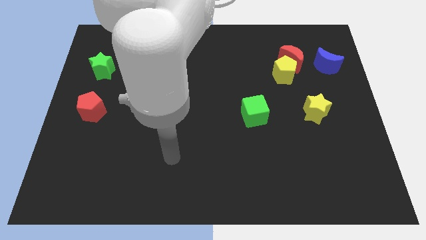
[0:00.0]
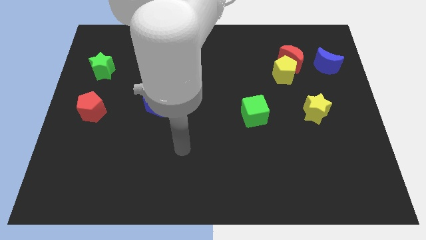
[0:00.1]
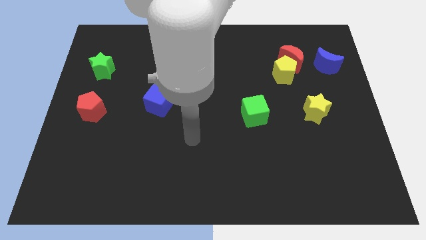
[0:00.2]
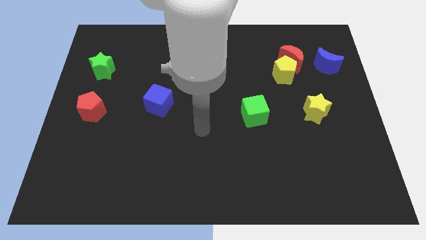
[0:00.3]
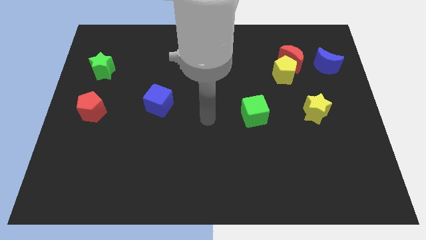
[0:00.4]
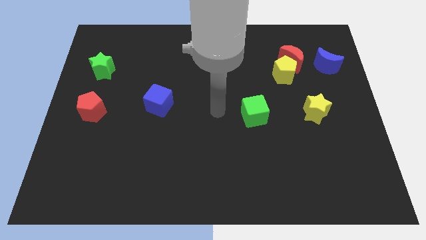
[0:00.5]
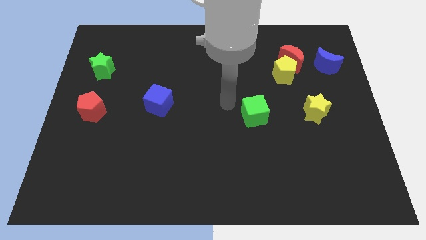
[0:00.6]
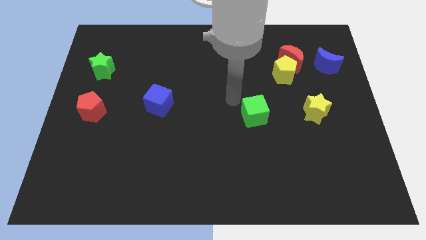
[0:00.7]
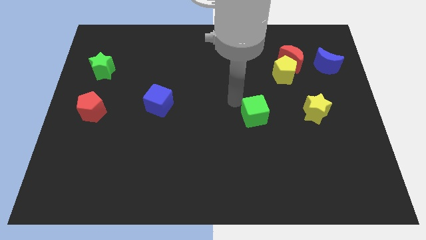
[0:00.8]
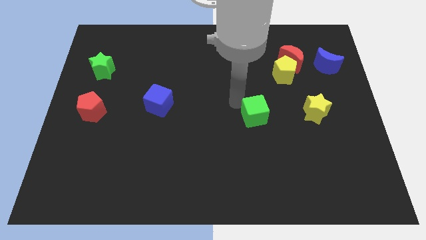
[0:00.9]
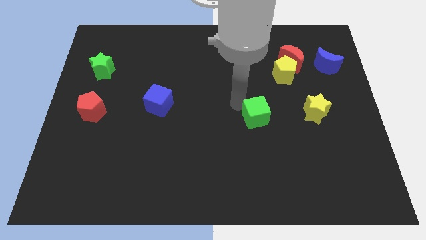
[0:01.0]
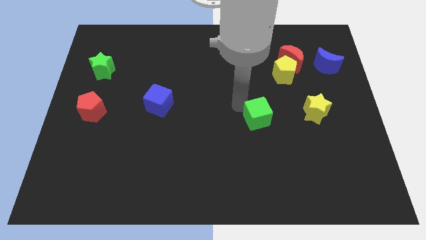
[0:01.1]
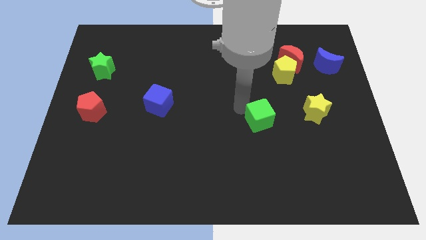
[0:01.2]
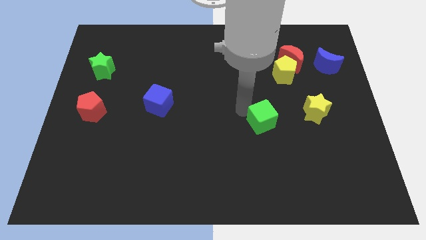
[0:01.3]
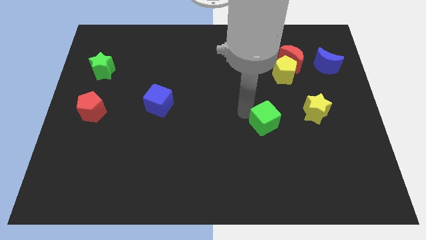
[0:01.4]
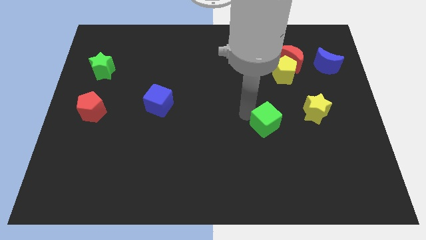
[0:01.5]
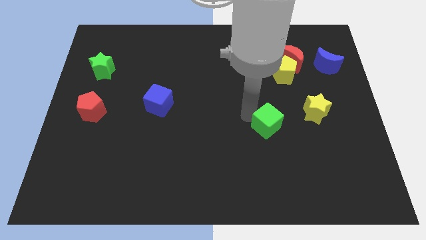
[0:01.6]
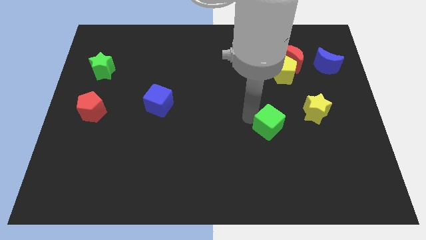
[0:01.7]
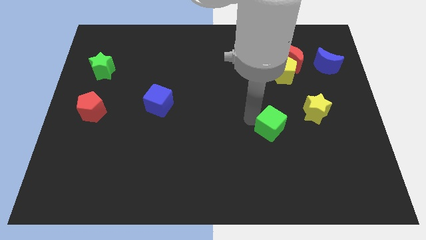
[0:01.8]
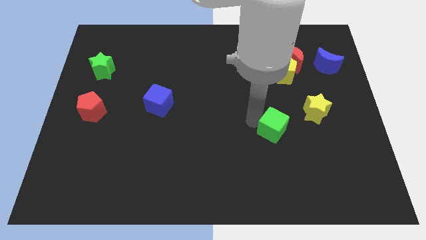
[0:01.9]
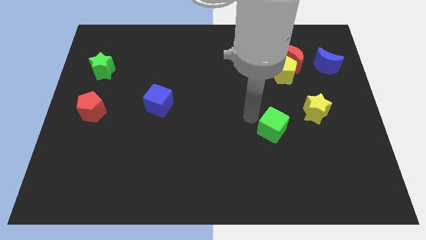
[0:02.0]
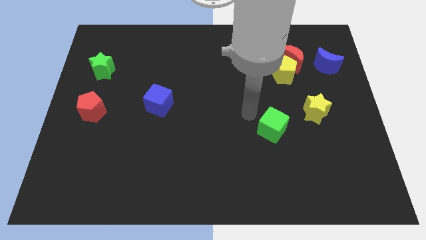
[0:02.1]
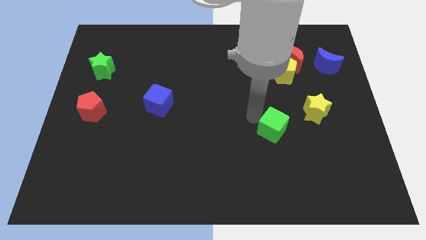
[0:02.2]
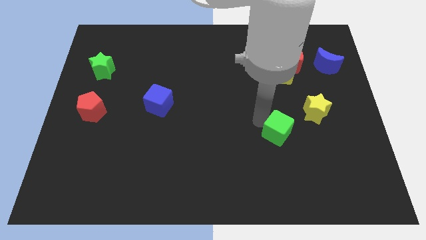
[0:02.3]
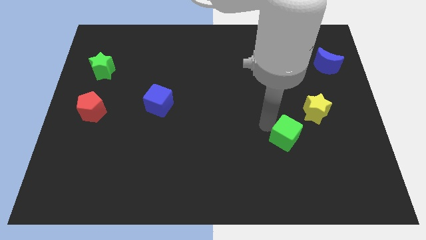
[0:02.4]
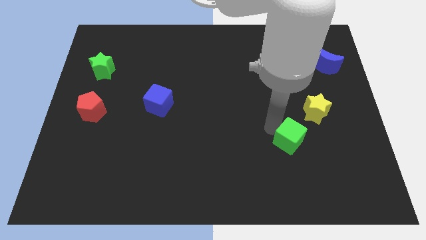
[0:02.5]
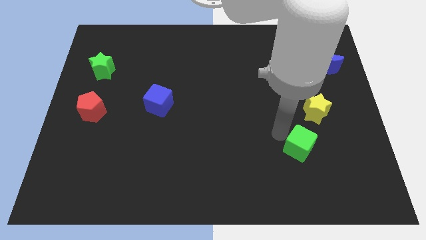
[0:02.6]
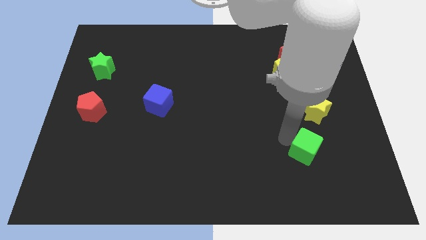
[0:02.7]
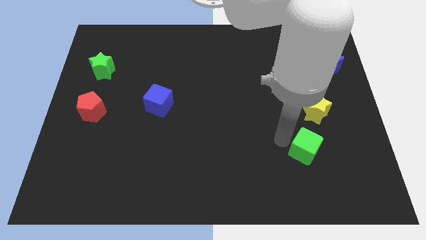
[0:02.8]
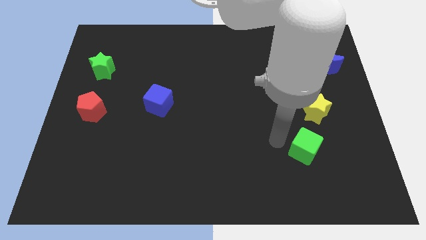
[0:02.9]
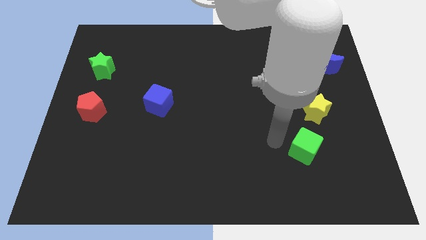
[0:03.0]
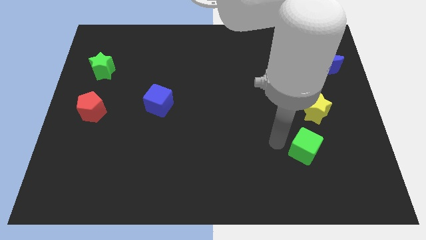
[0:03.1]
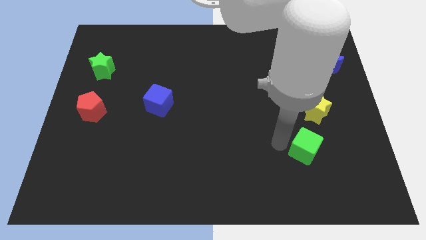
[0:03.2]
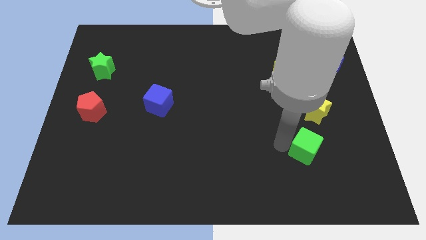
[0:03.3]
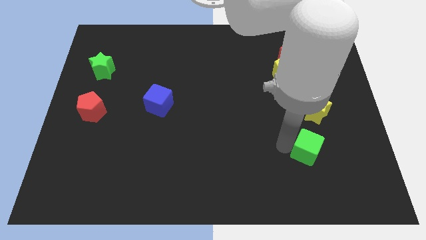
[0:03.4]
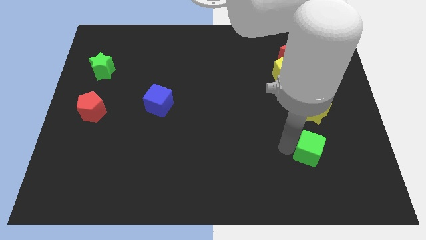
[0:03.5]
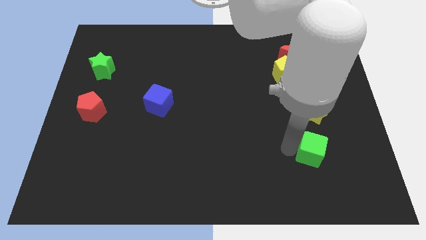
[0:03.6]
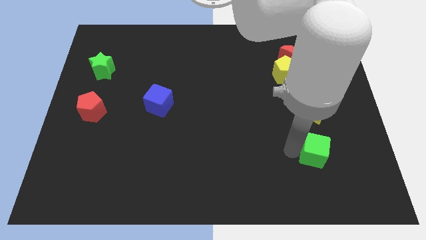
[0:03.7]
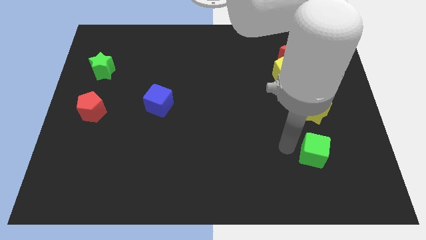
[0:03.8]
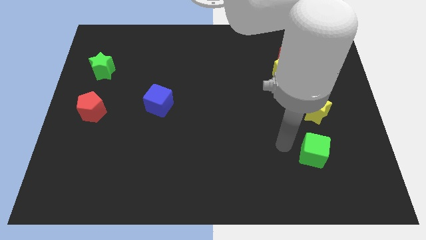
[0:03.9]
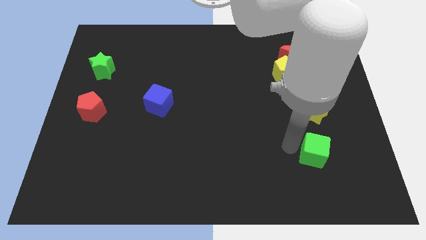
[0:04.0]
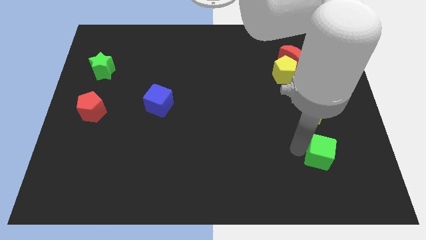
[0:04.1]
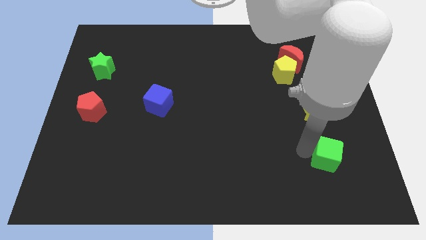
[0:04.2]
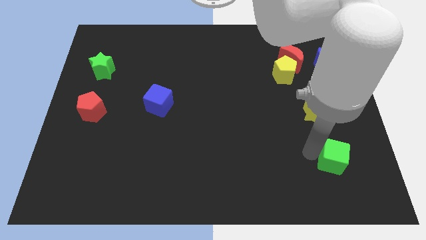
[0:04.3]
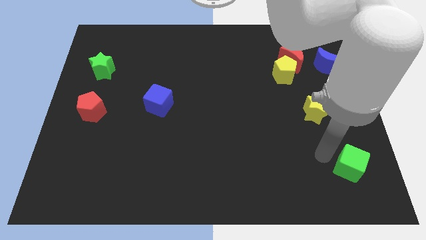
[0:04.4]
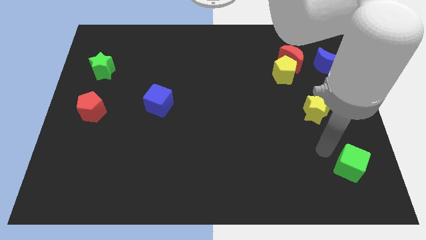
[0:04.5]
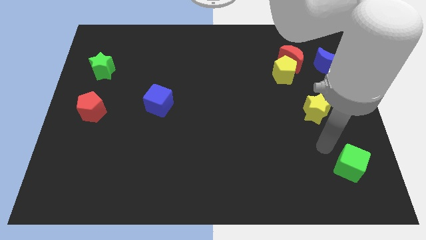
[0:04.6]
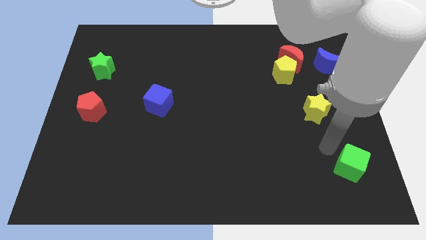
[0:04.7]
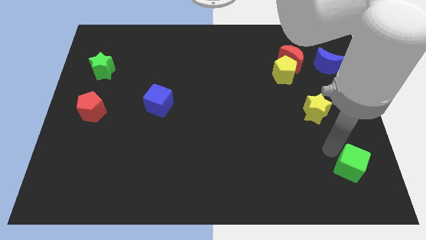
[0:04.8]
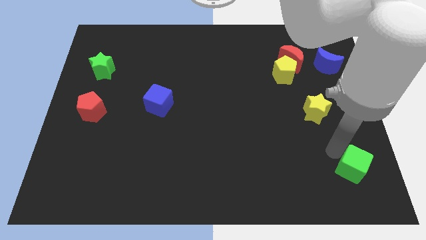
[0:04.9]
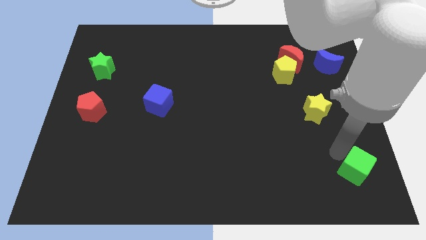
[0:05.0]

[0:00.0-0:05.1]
push the green cube to the bottom right of the board

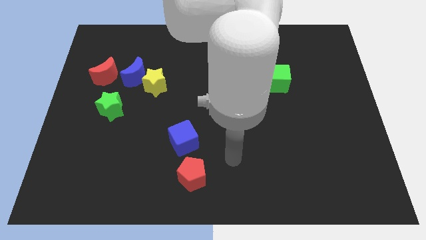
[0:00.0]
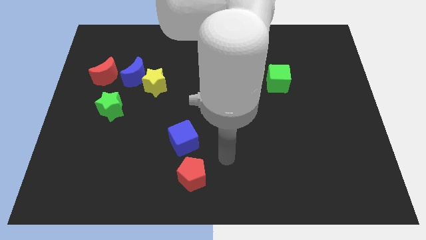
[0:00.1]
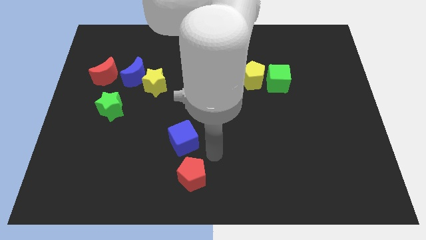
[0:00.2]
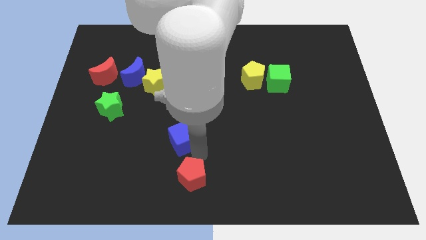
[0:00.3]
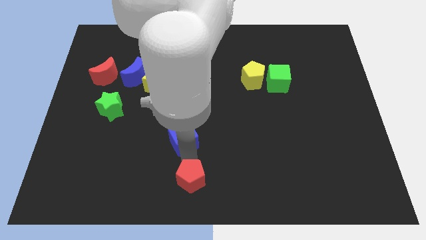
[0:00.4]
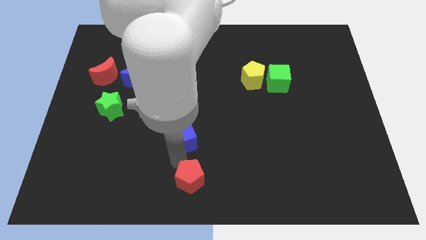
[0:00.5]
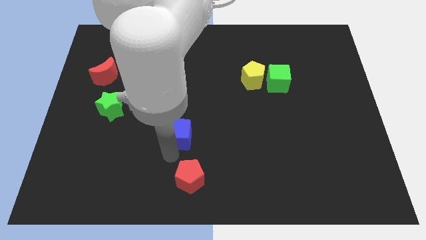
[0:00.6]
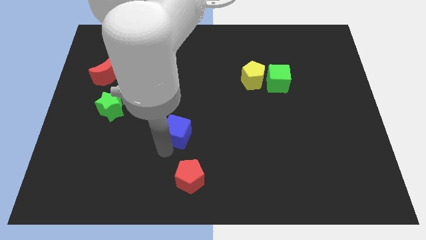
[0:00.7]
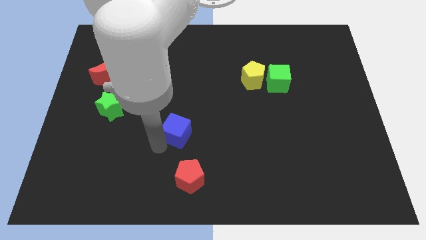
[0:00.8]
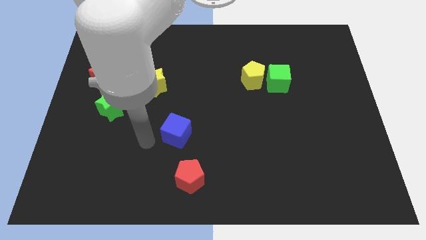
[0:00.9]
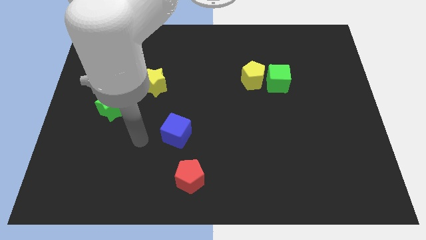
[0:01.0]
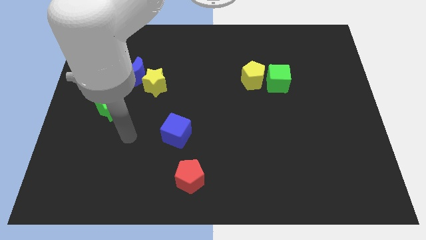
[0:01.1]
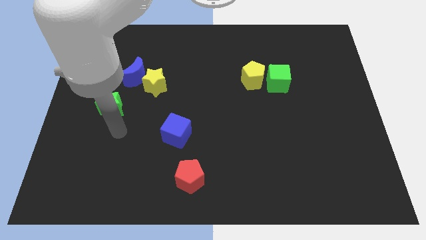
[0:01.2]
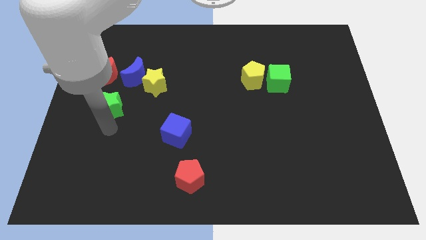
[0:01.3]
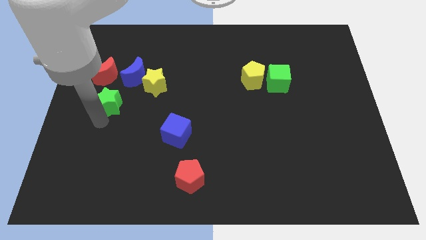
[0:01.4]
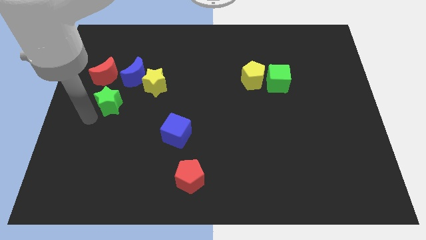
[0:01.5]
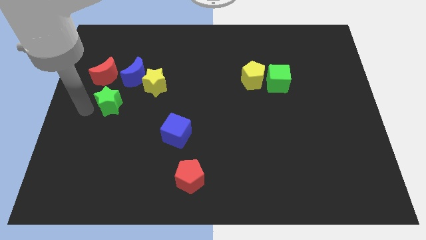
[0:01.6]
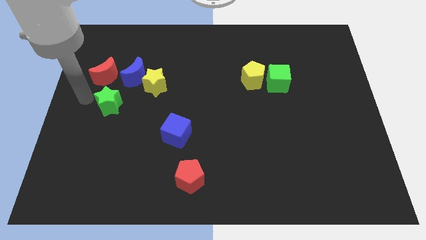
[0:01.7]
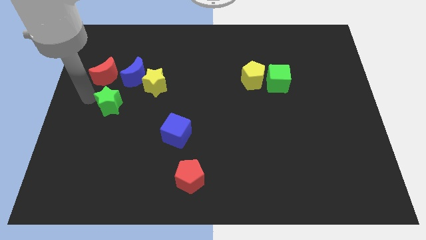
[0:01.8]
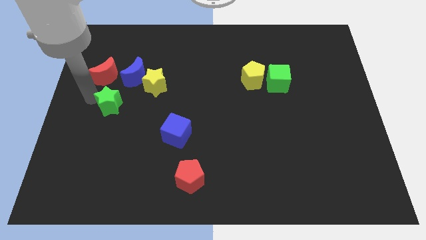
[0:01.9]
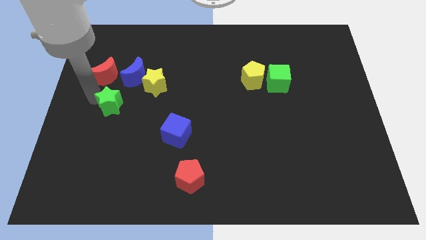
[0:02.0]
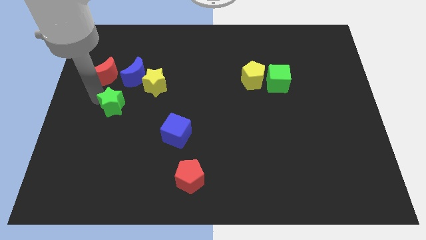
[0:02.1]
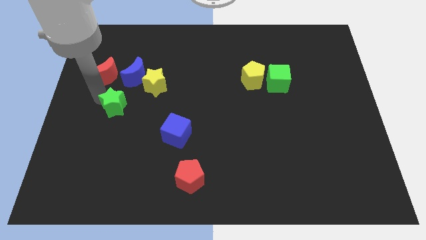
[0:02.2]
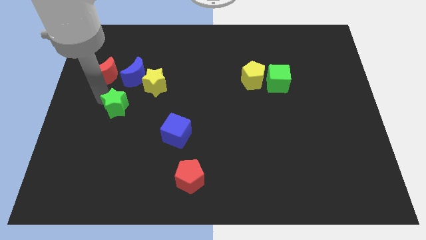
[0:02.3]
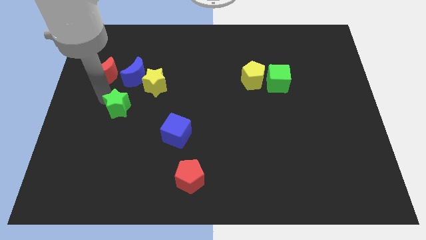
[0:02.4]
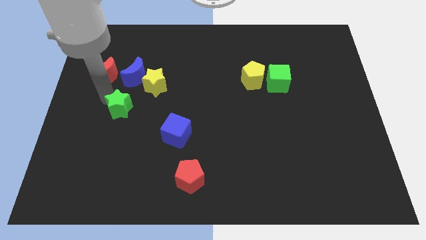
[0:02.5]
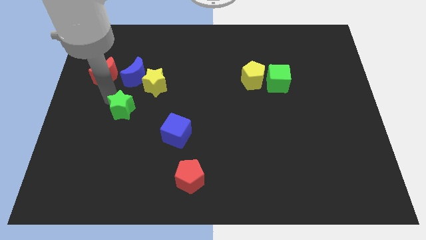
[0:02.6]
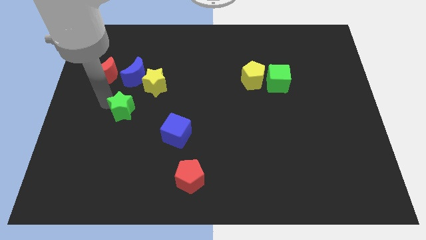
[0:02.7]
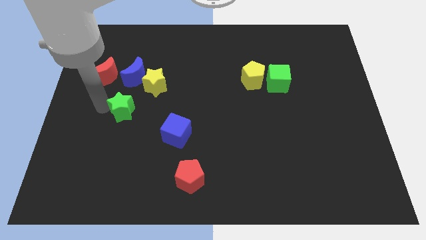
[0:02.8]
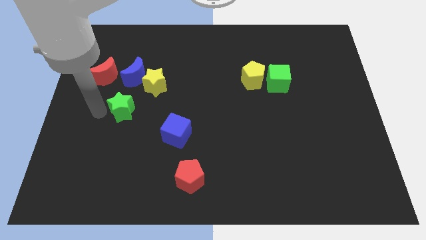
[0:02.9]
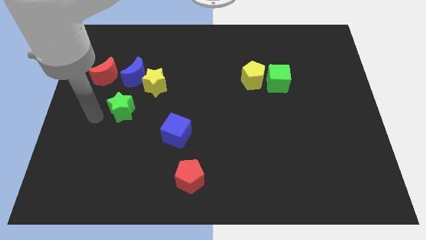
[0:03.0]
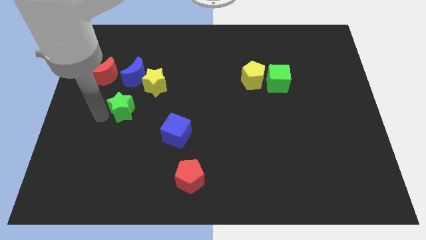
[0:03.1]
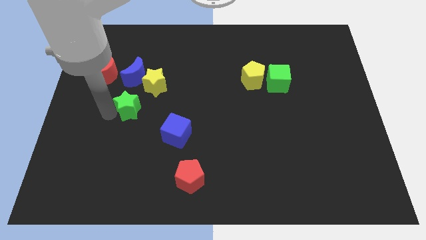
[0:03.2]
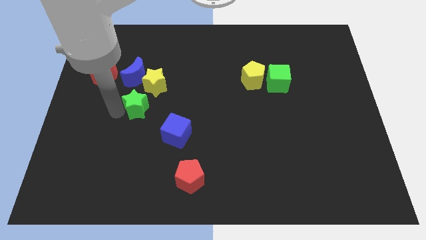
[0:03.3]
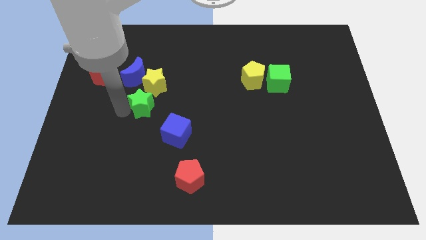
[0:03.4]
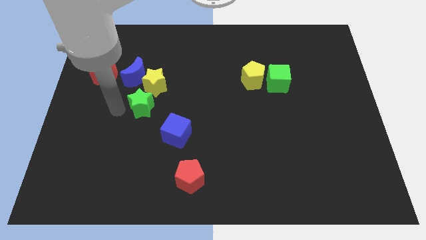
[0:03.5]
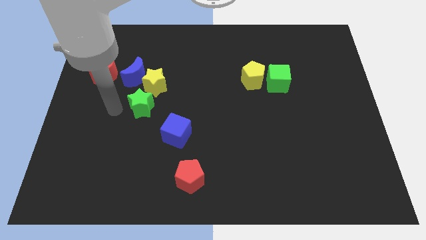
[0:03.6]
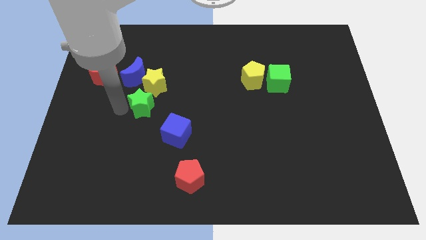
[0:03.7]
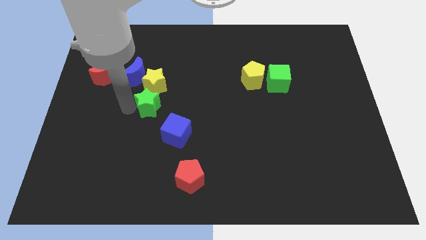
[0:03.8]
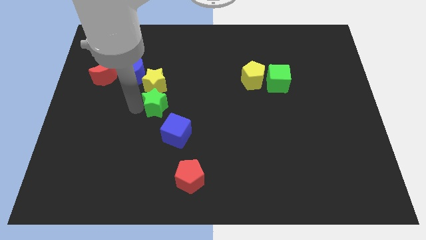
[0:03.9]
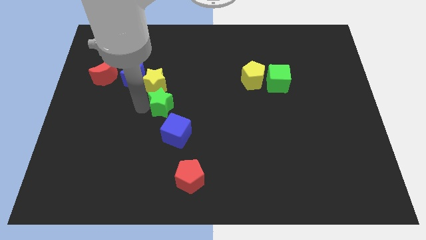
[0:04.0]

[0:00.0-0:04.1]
put the green star to the center of the board
